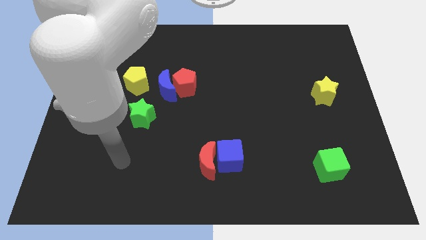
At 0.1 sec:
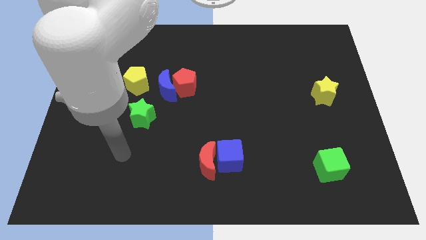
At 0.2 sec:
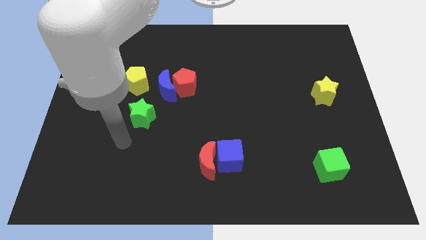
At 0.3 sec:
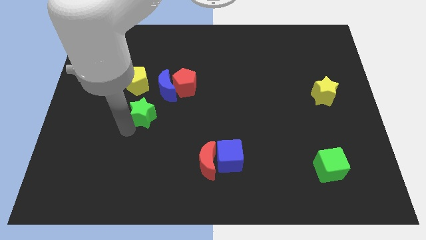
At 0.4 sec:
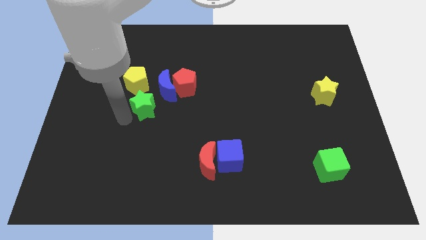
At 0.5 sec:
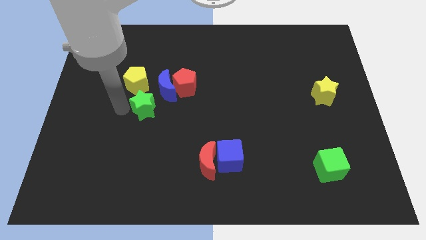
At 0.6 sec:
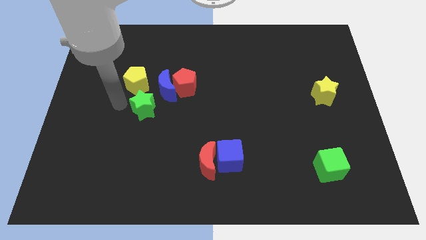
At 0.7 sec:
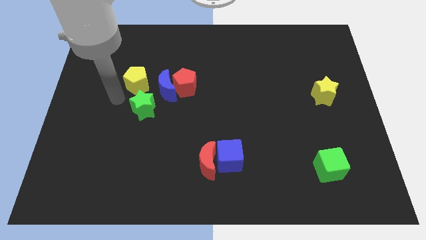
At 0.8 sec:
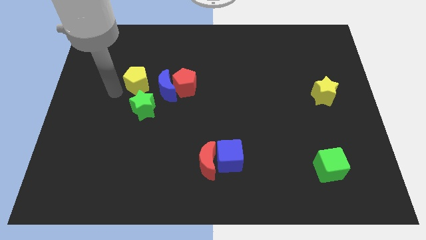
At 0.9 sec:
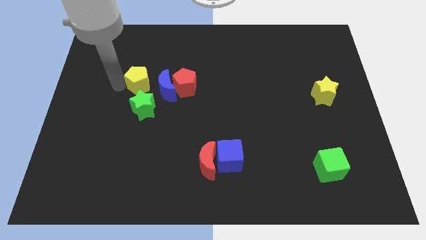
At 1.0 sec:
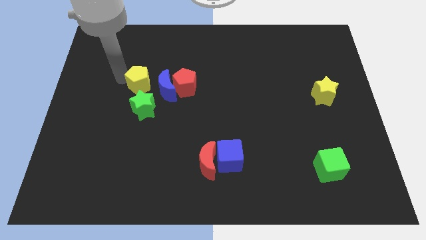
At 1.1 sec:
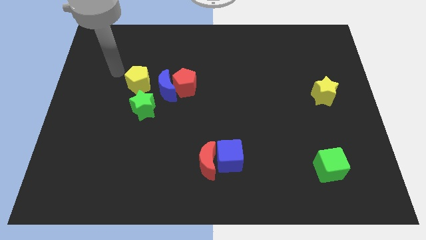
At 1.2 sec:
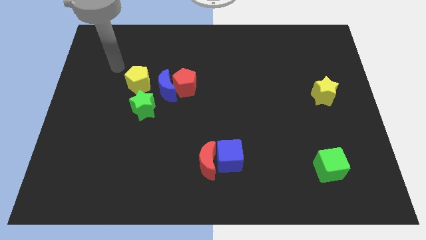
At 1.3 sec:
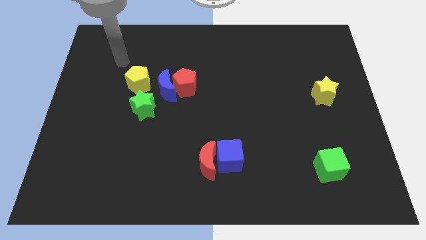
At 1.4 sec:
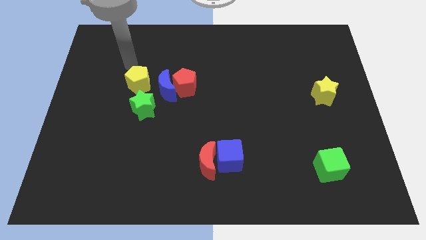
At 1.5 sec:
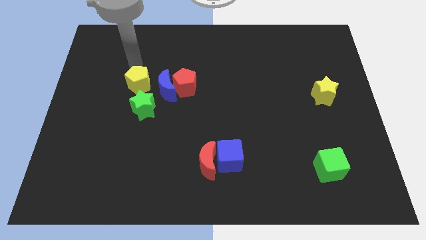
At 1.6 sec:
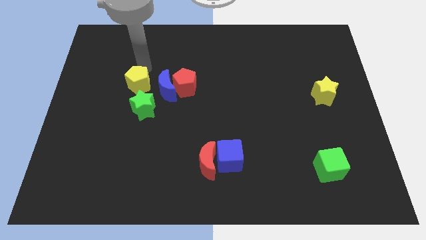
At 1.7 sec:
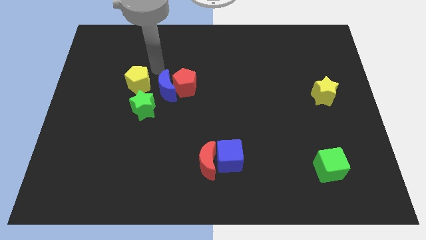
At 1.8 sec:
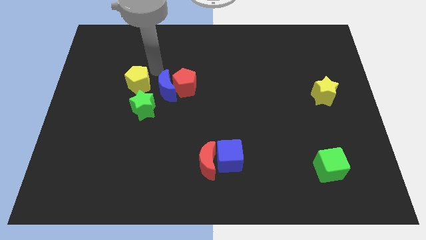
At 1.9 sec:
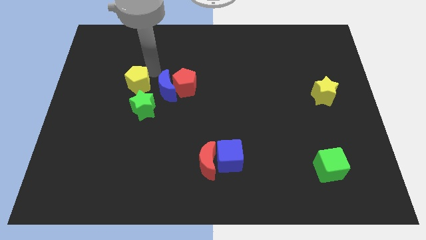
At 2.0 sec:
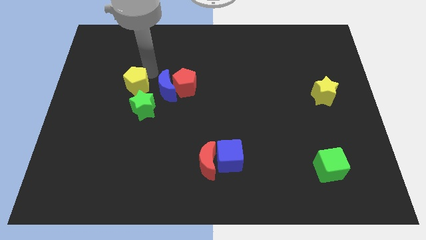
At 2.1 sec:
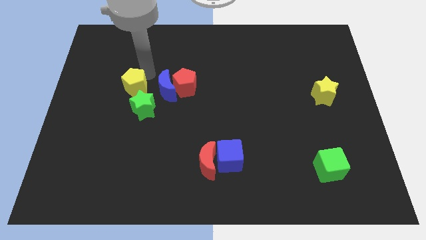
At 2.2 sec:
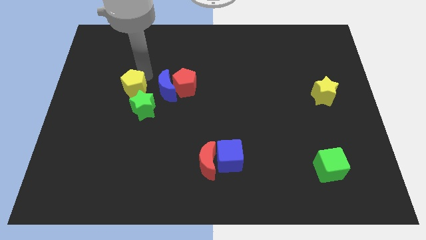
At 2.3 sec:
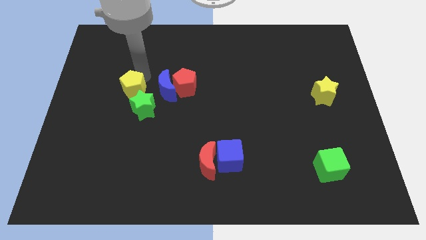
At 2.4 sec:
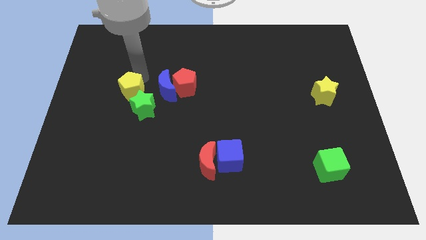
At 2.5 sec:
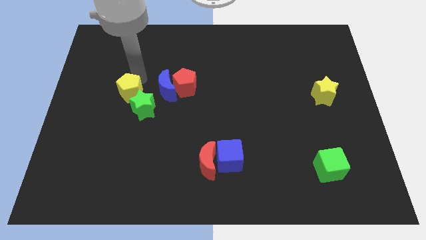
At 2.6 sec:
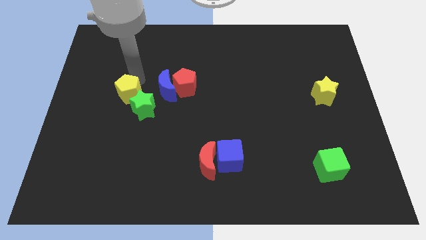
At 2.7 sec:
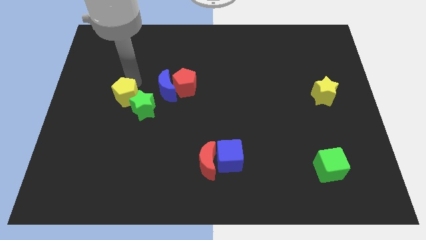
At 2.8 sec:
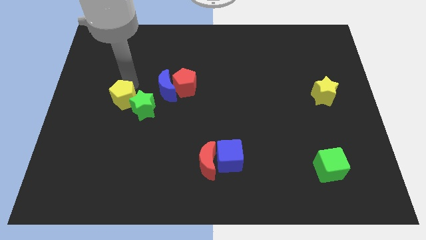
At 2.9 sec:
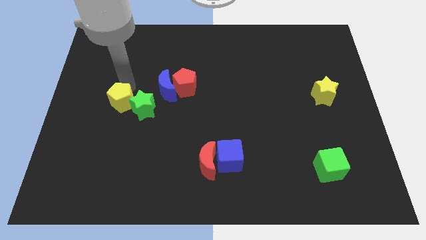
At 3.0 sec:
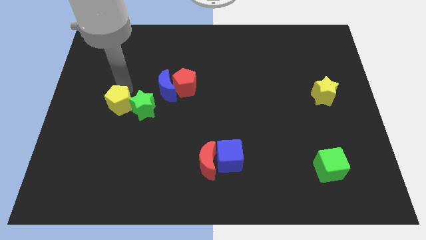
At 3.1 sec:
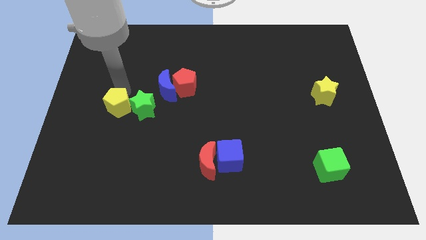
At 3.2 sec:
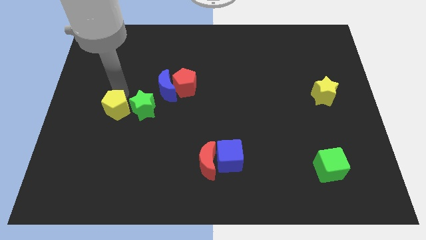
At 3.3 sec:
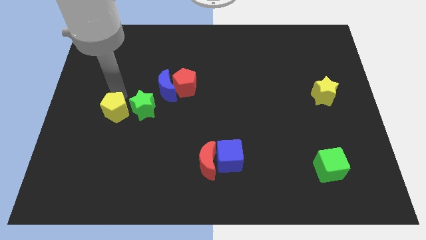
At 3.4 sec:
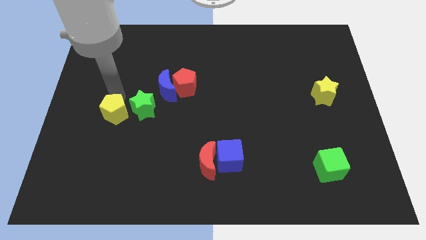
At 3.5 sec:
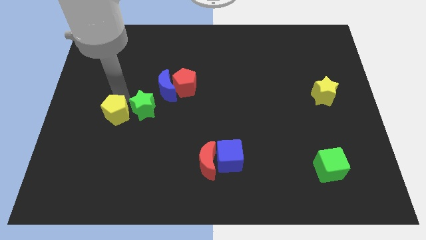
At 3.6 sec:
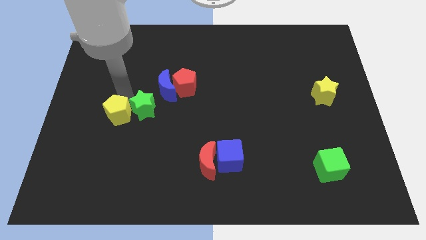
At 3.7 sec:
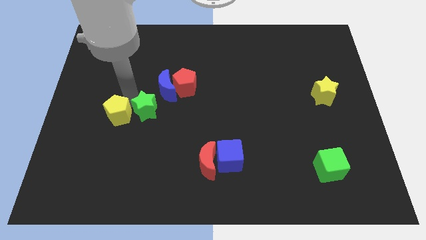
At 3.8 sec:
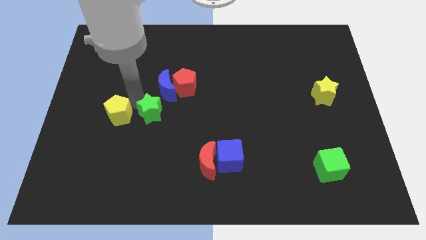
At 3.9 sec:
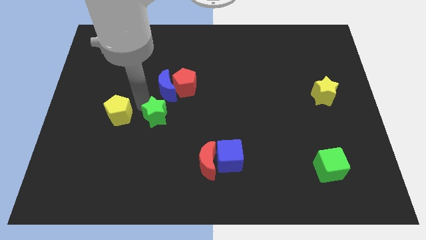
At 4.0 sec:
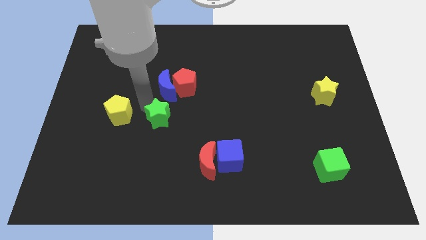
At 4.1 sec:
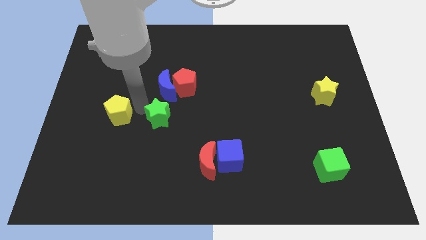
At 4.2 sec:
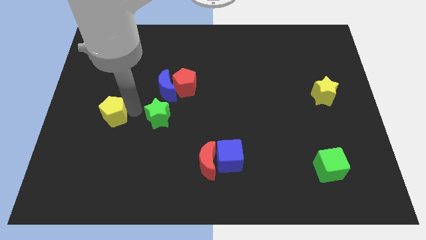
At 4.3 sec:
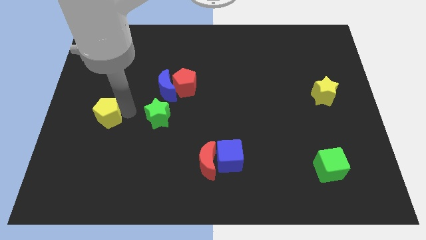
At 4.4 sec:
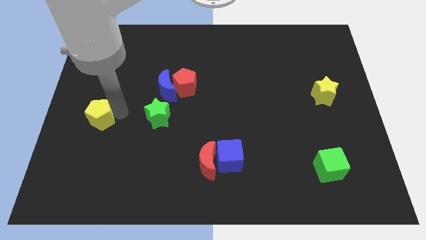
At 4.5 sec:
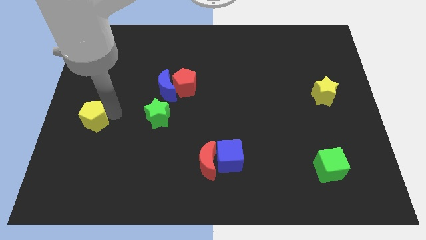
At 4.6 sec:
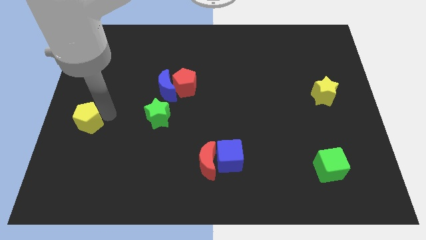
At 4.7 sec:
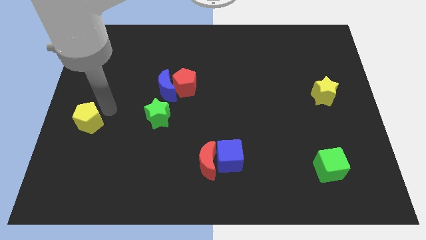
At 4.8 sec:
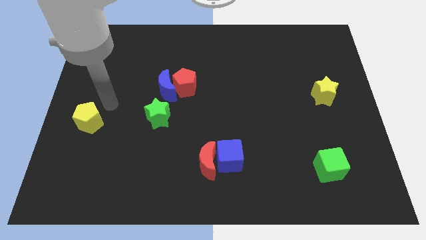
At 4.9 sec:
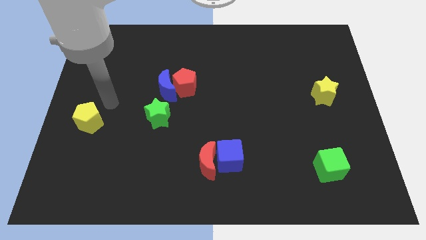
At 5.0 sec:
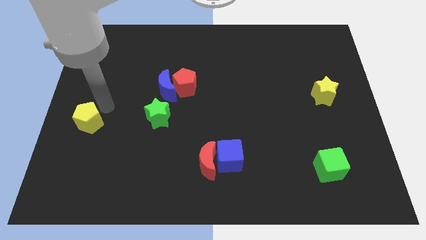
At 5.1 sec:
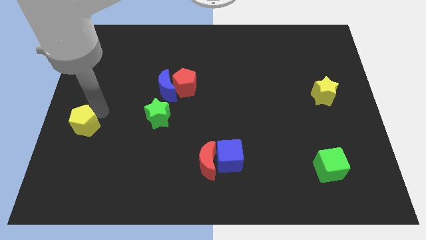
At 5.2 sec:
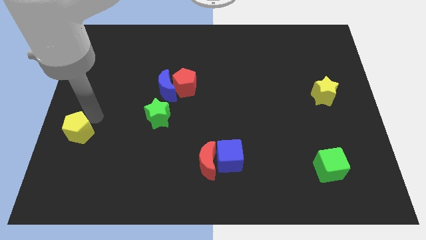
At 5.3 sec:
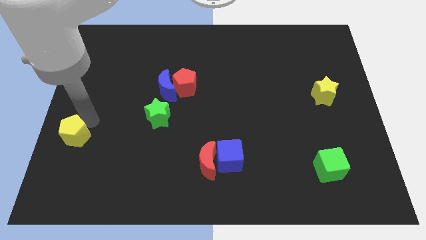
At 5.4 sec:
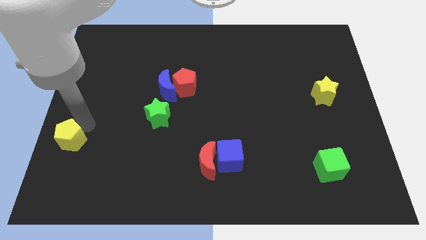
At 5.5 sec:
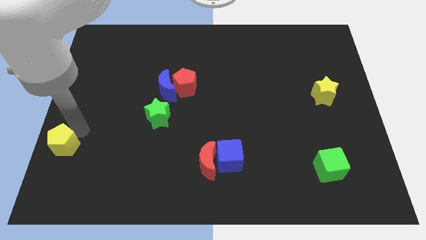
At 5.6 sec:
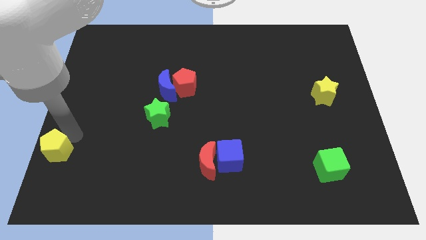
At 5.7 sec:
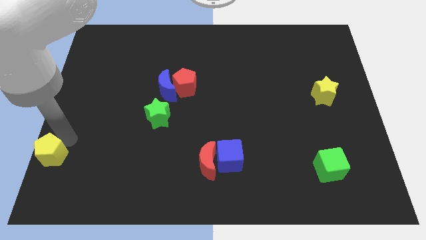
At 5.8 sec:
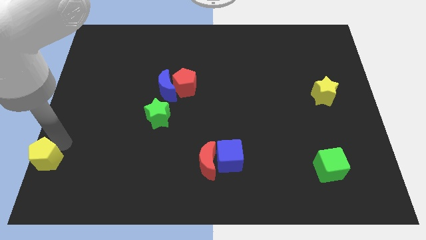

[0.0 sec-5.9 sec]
move the yellow pentagon to the bottom left

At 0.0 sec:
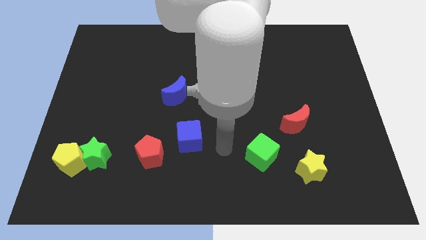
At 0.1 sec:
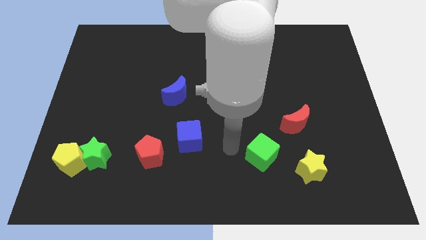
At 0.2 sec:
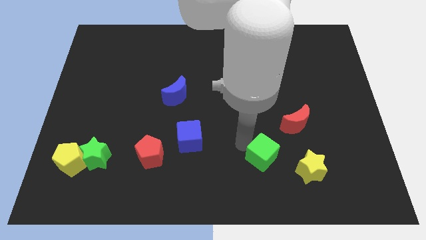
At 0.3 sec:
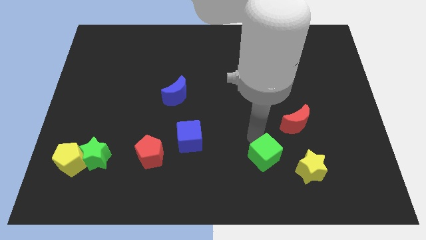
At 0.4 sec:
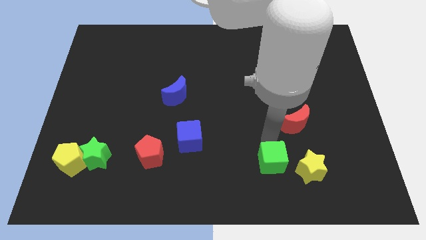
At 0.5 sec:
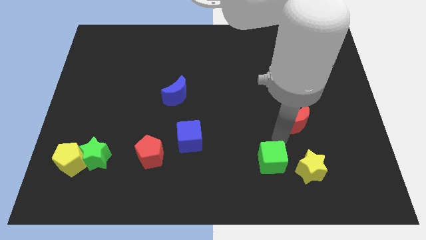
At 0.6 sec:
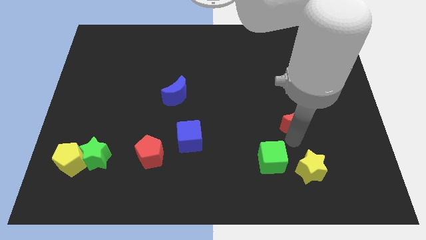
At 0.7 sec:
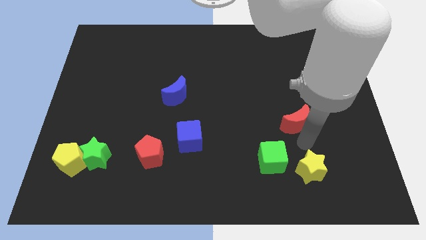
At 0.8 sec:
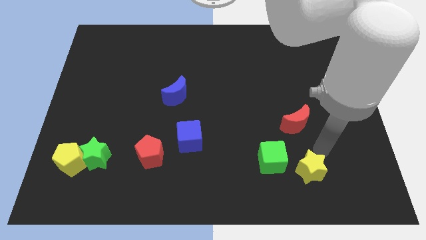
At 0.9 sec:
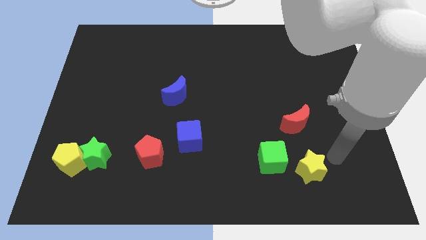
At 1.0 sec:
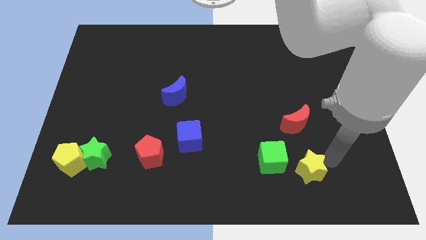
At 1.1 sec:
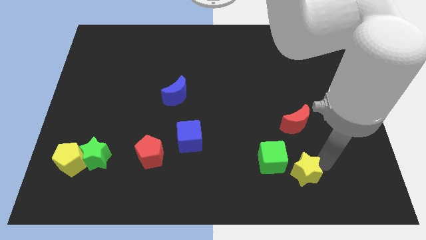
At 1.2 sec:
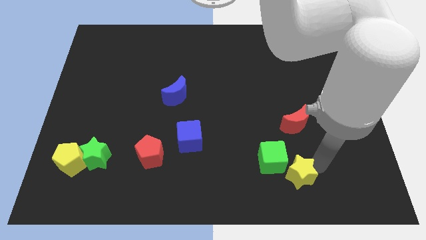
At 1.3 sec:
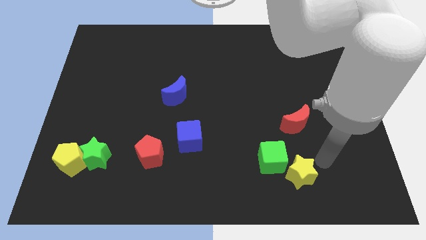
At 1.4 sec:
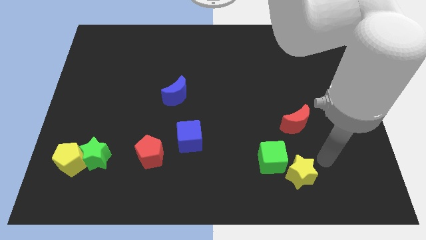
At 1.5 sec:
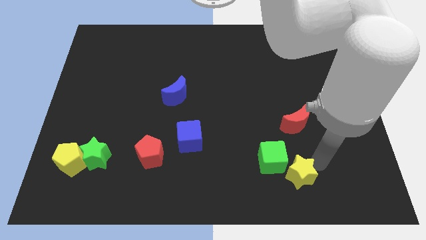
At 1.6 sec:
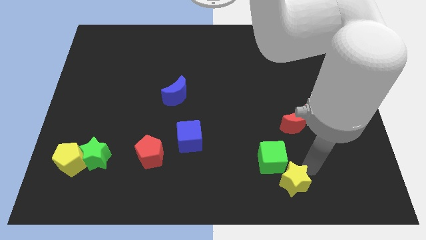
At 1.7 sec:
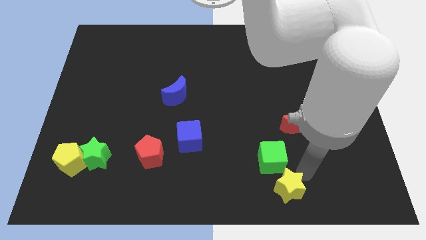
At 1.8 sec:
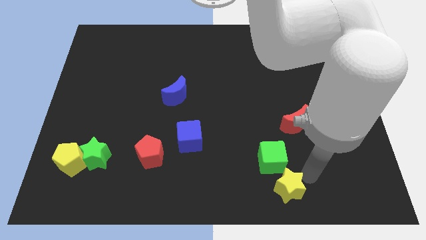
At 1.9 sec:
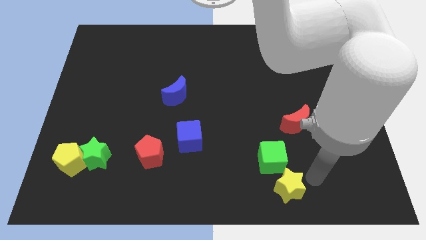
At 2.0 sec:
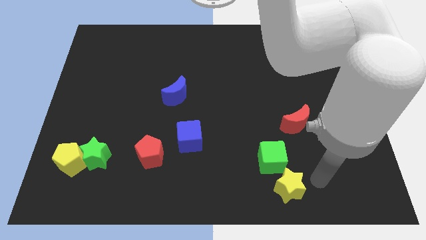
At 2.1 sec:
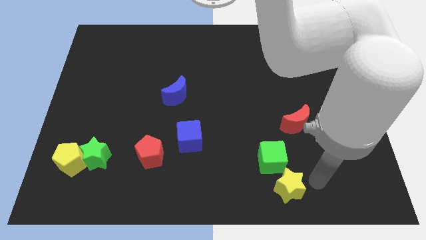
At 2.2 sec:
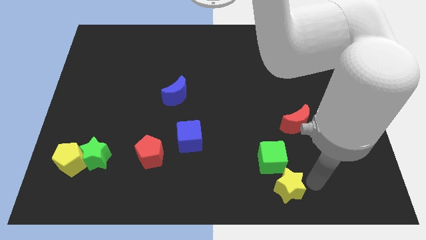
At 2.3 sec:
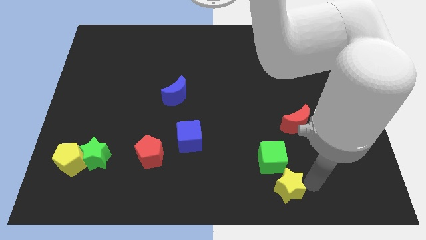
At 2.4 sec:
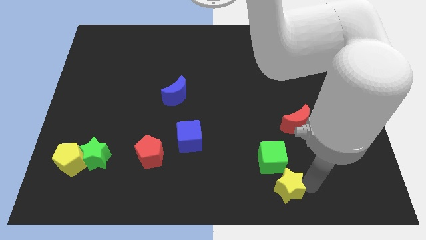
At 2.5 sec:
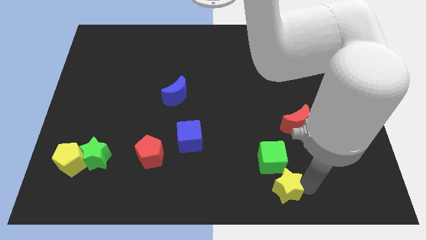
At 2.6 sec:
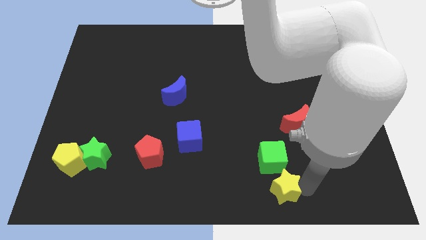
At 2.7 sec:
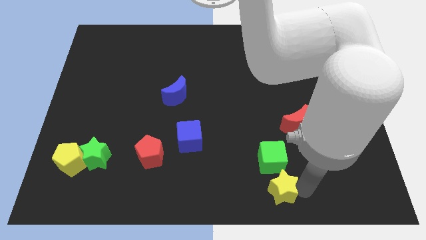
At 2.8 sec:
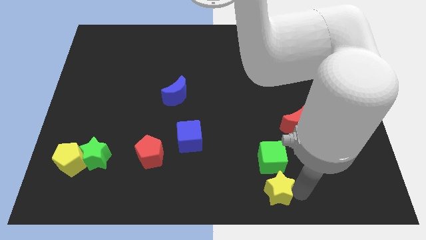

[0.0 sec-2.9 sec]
push the yellow star to the bottom side
